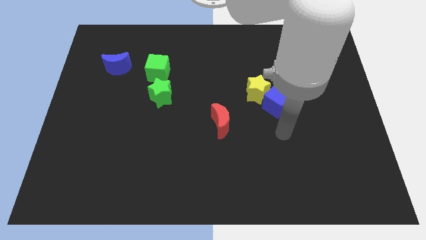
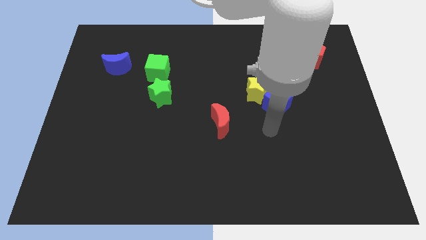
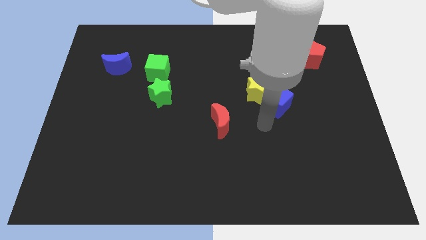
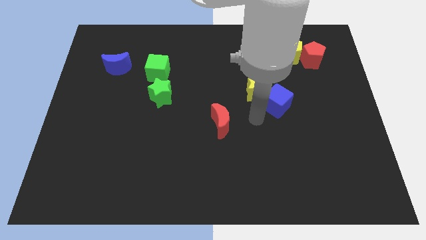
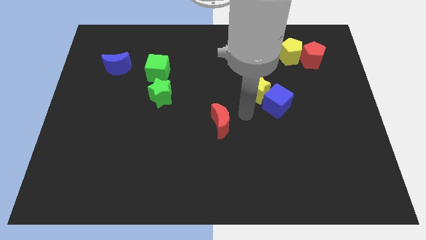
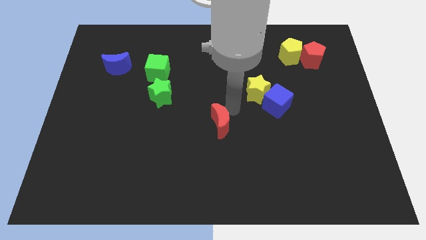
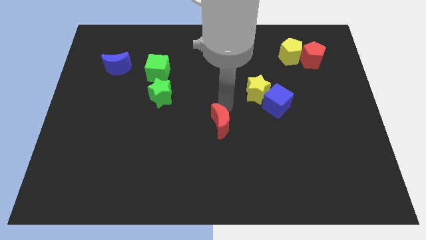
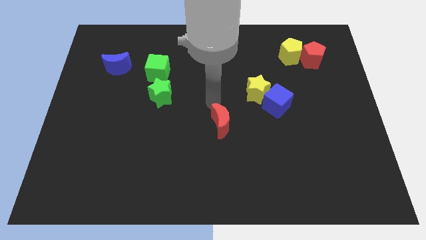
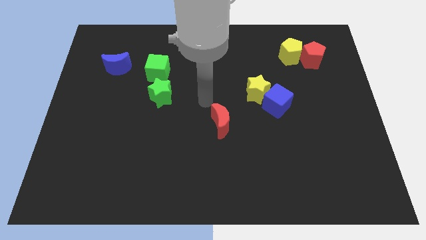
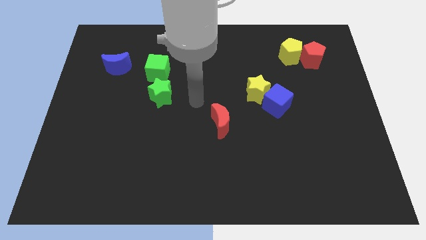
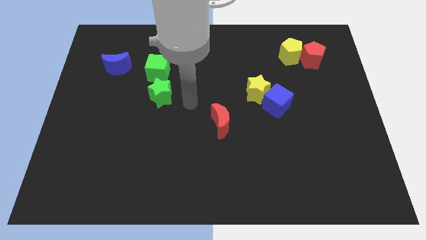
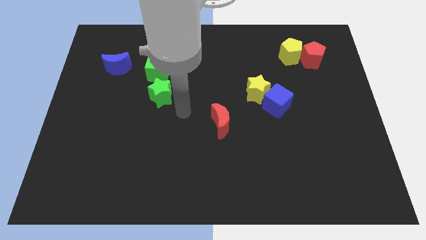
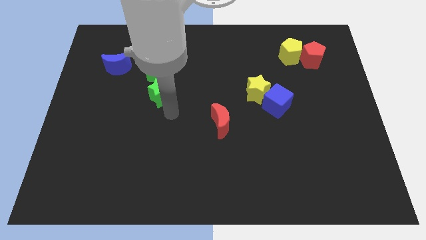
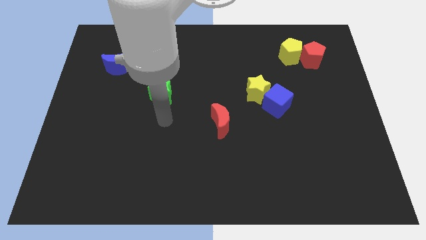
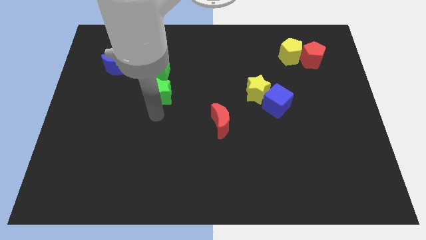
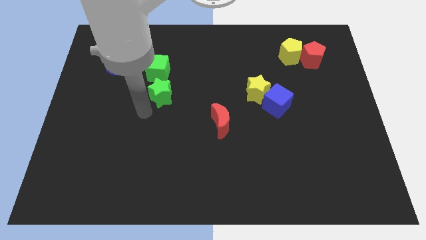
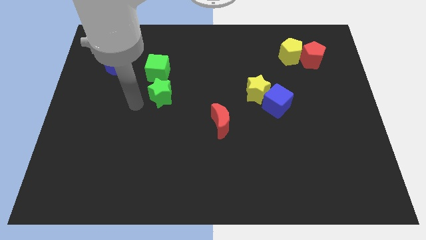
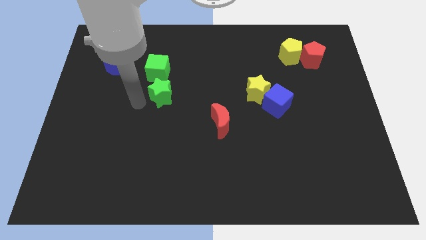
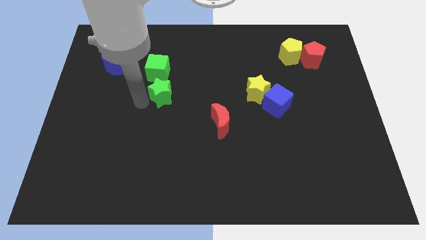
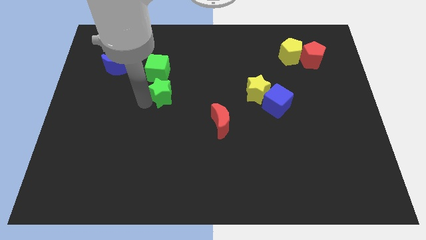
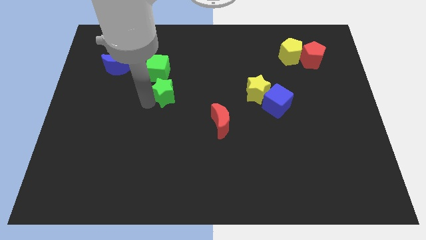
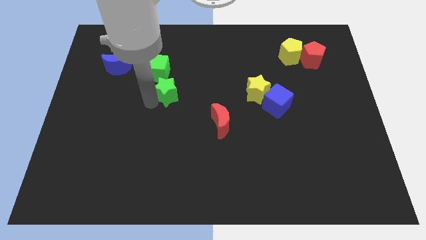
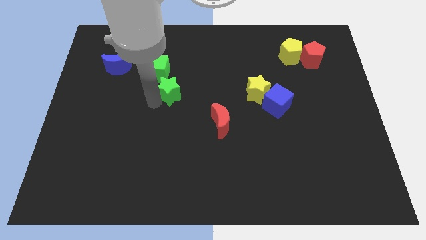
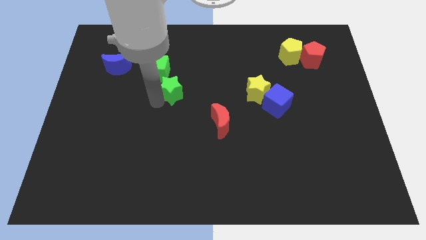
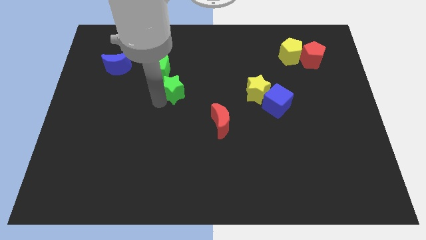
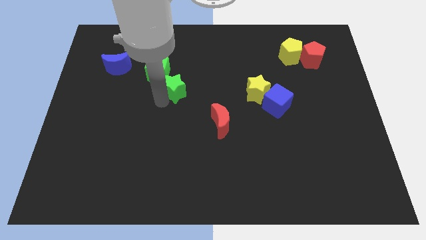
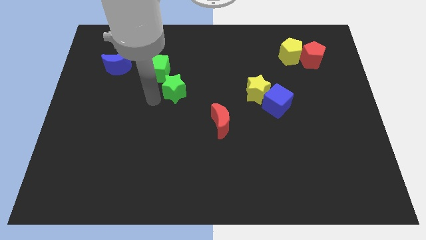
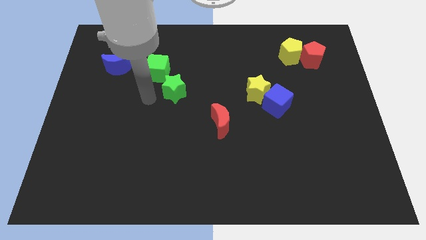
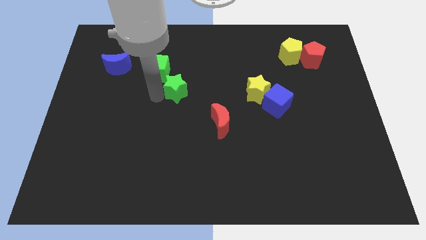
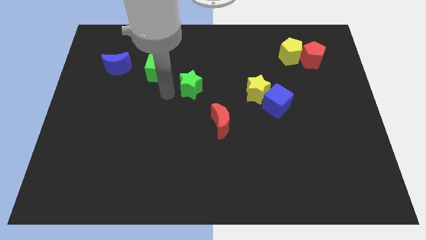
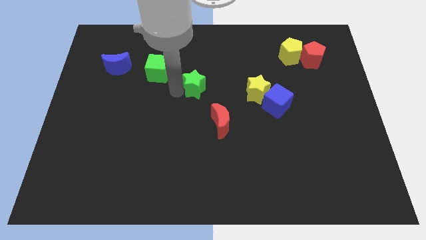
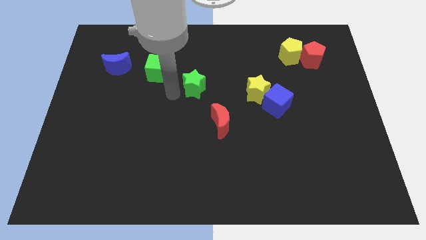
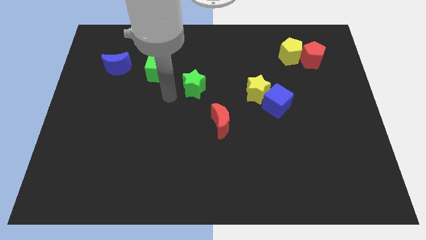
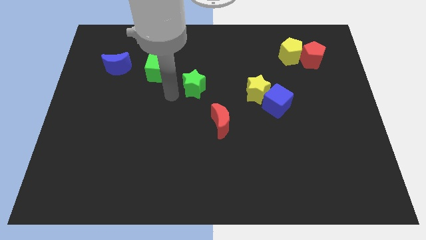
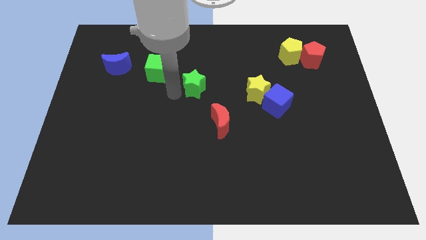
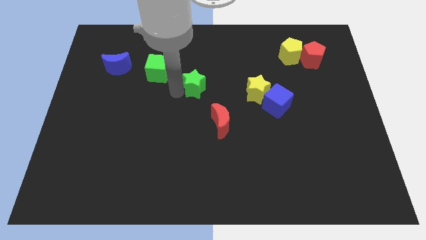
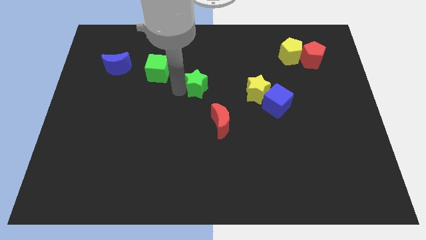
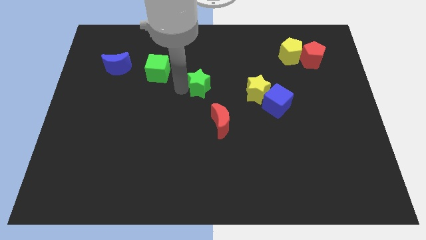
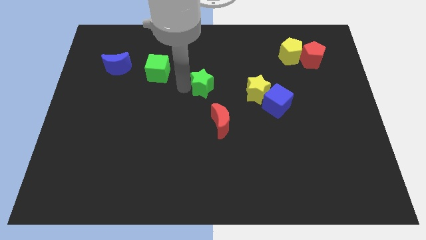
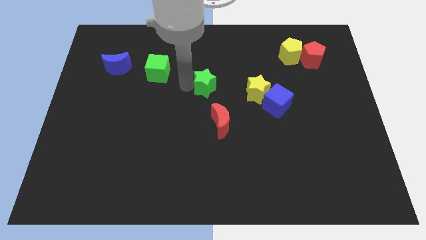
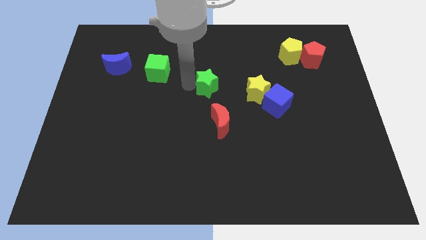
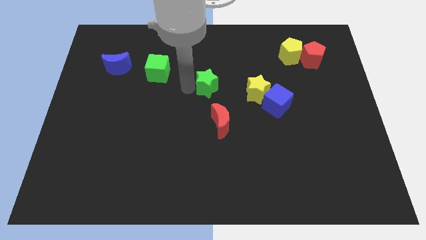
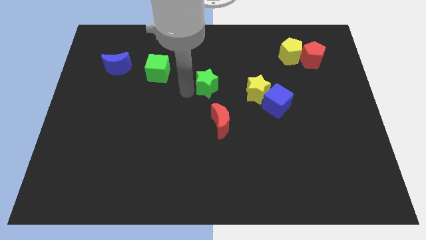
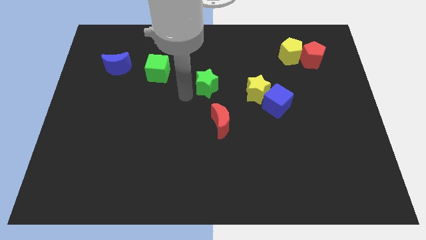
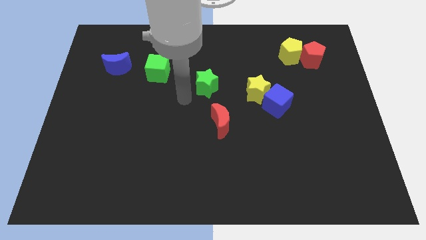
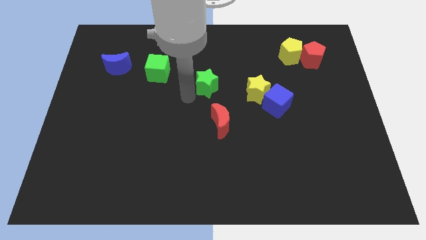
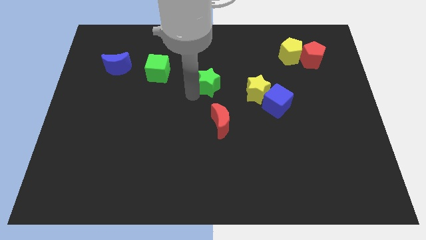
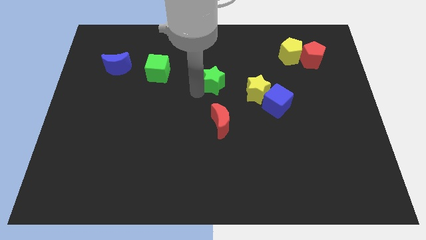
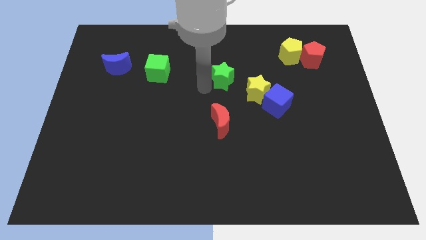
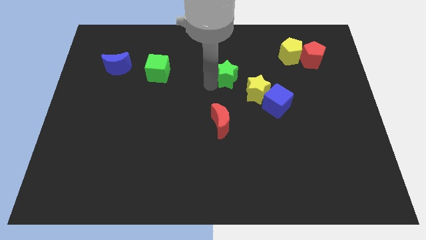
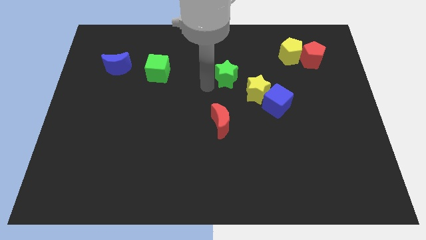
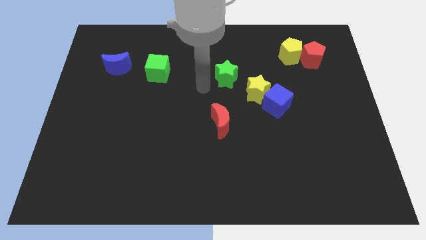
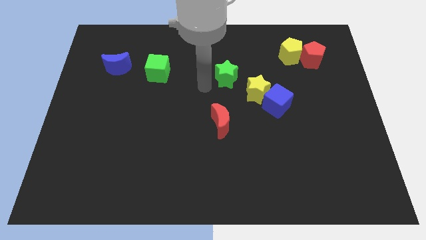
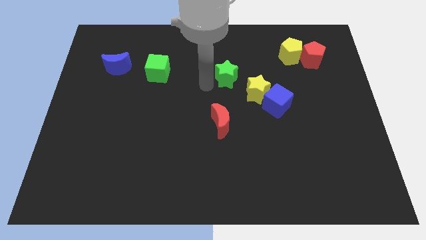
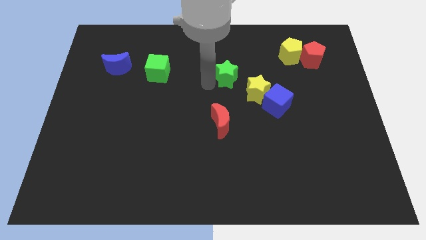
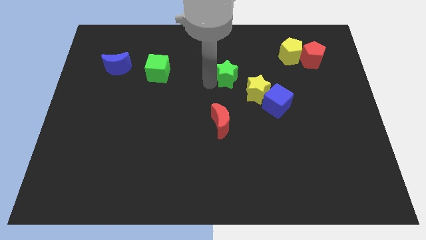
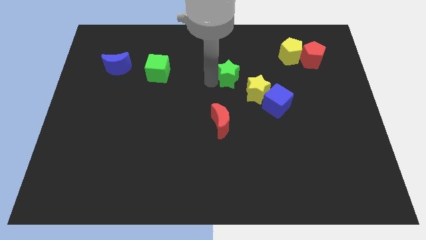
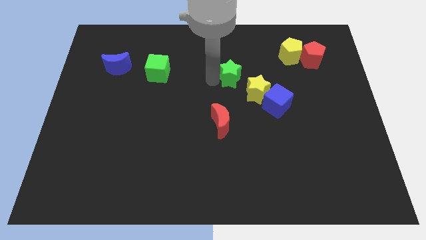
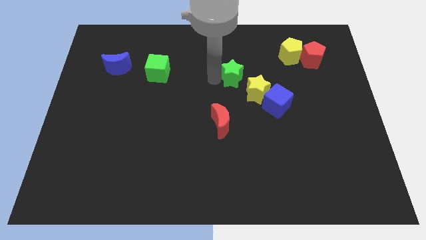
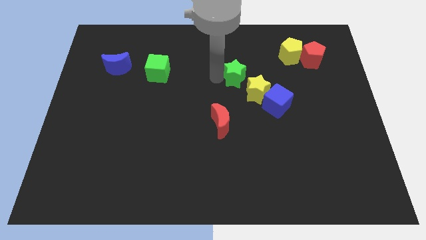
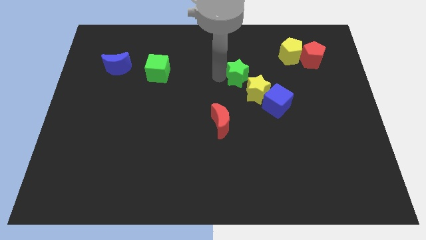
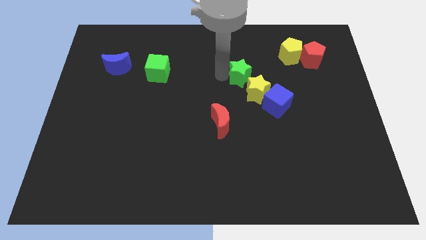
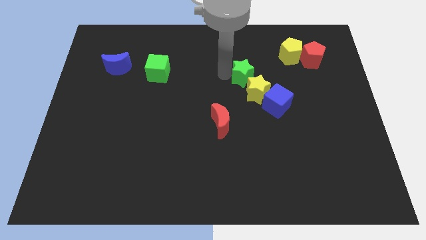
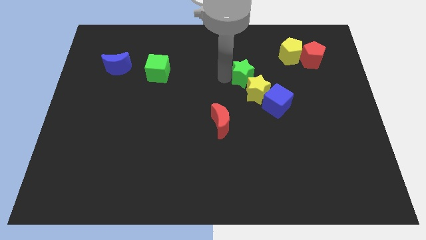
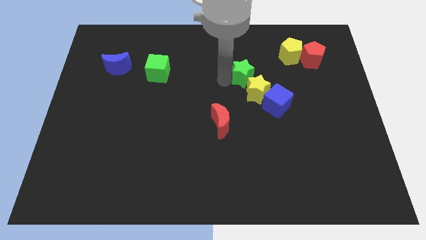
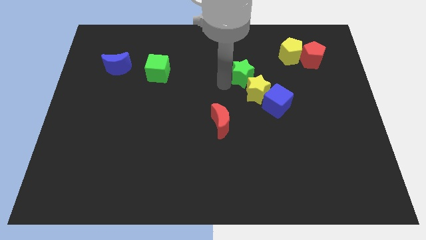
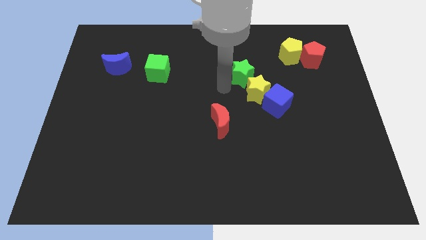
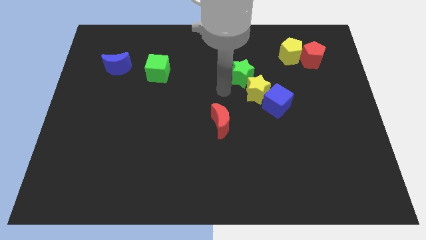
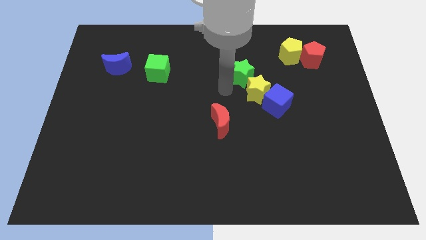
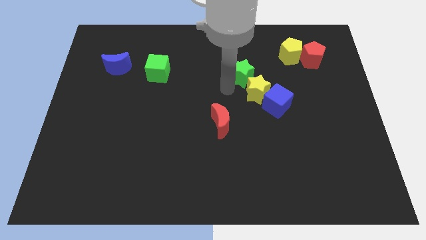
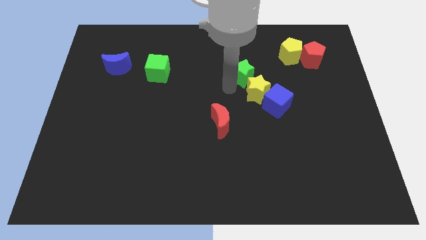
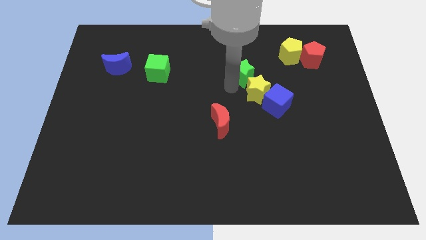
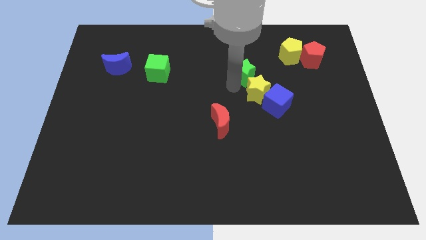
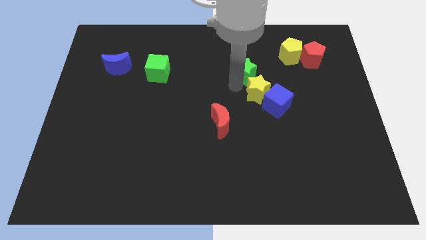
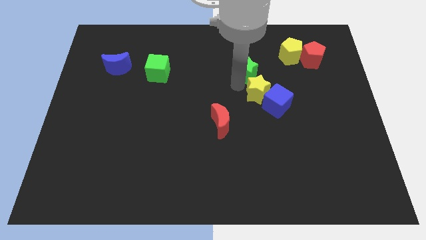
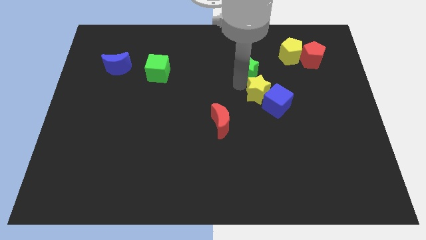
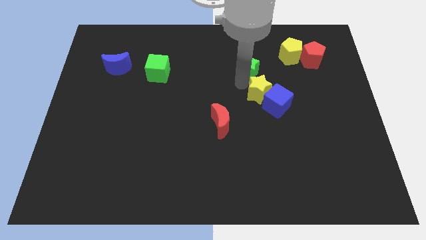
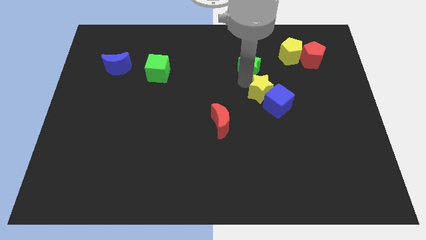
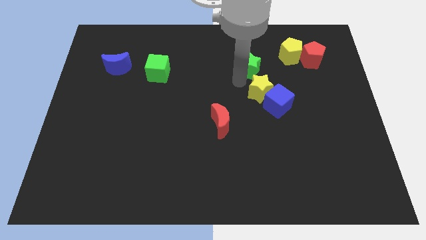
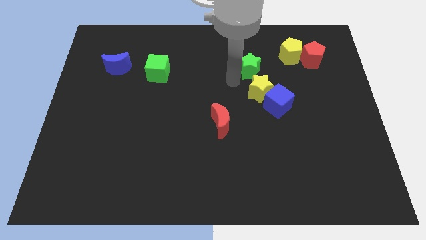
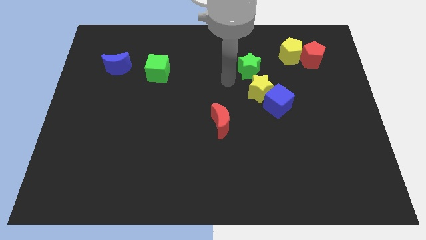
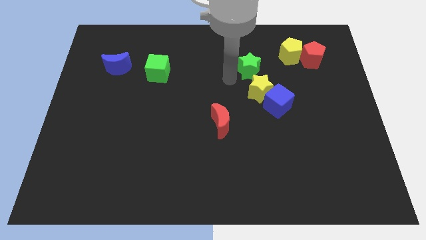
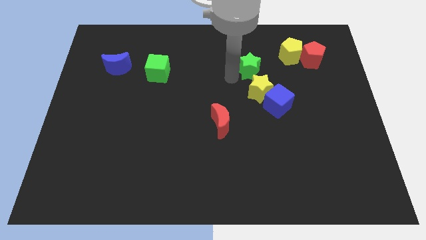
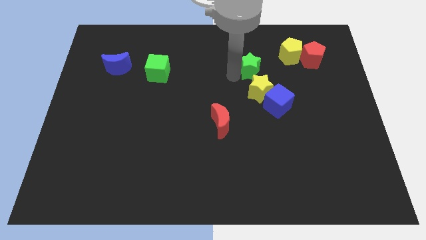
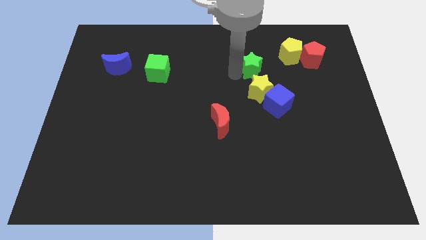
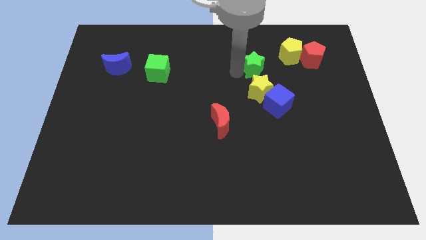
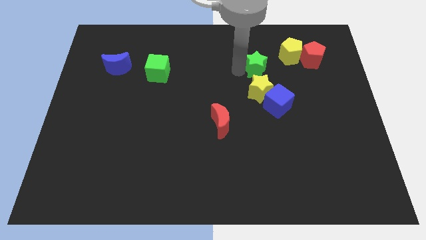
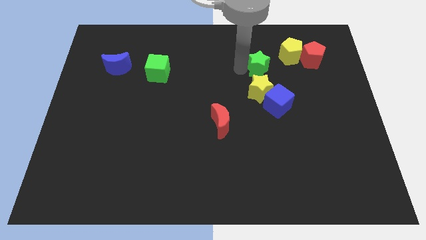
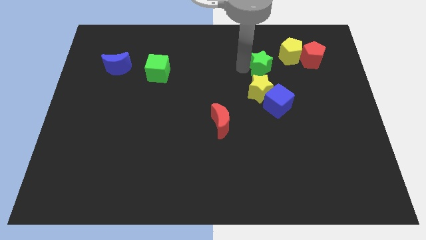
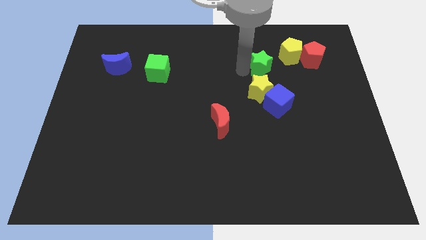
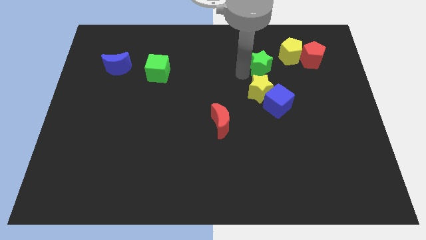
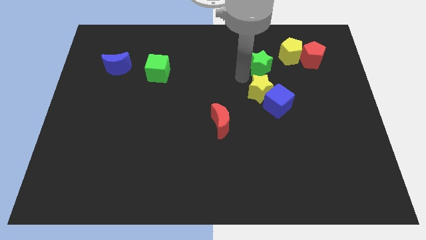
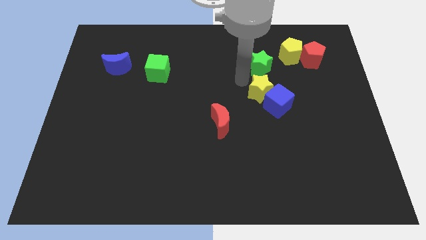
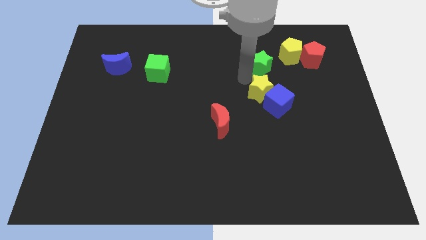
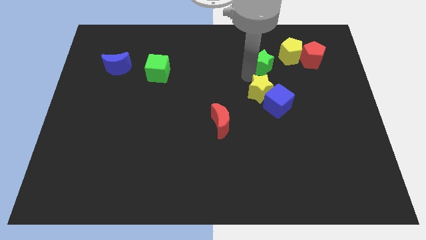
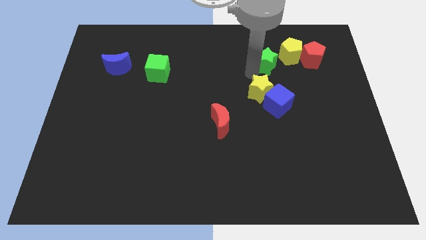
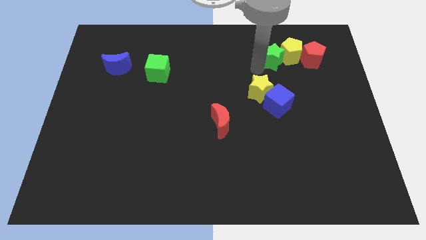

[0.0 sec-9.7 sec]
put the green star to the yellow pentagon
